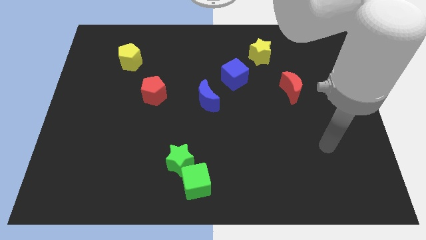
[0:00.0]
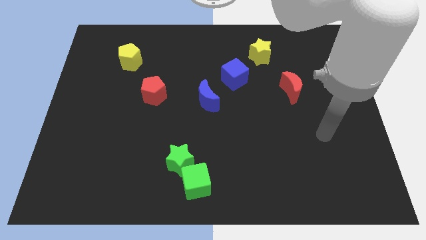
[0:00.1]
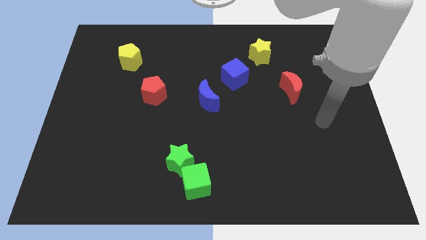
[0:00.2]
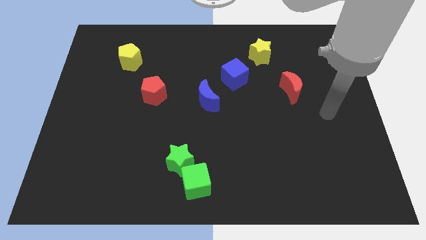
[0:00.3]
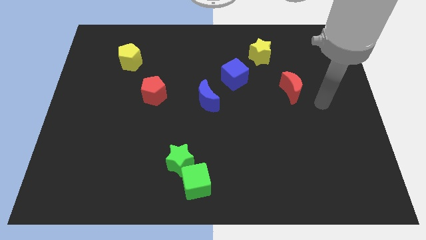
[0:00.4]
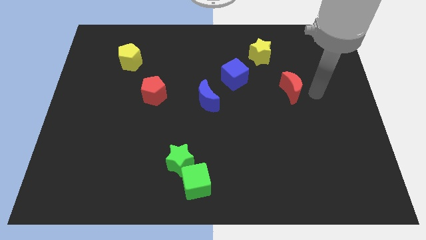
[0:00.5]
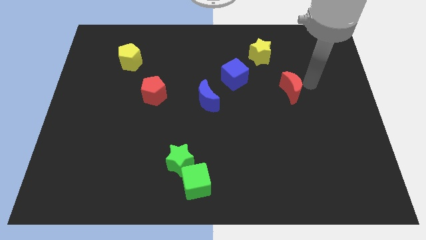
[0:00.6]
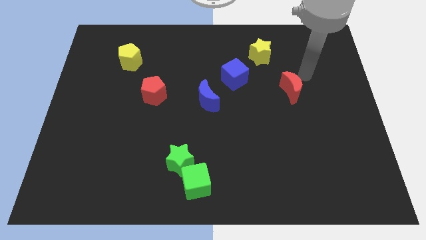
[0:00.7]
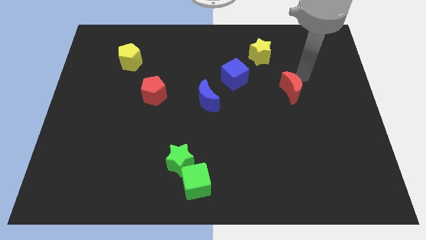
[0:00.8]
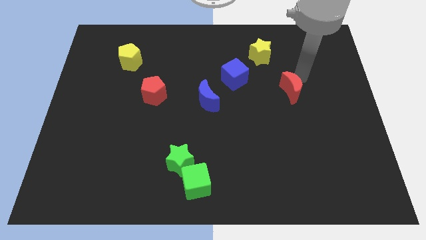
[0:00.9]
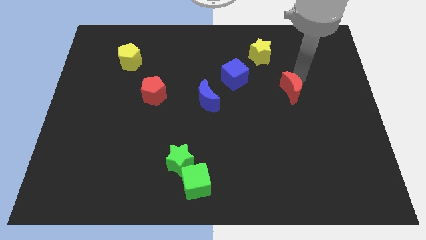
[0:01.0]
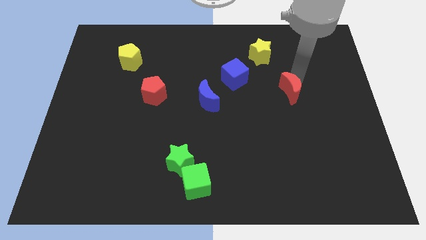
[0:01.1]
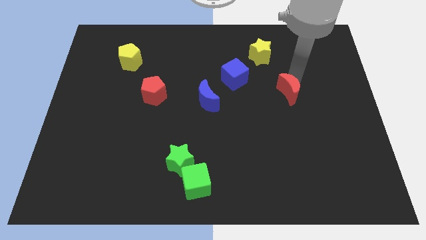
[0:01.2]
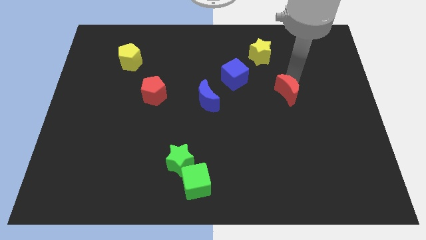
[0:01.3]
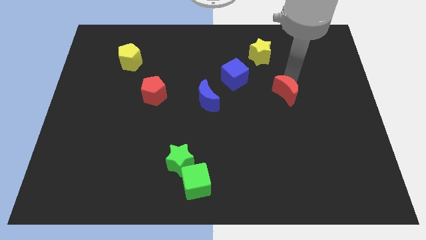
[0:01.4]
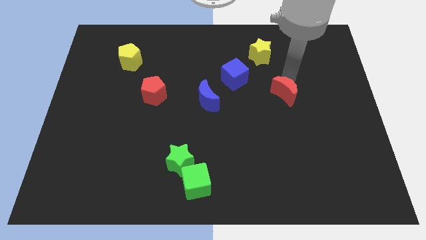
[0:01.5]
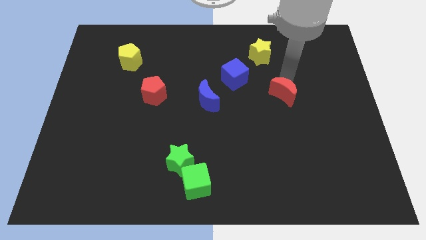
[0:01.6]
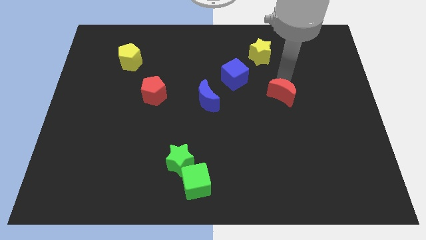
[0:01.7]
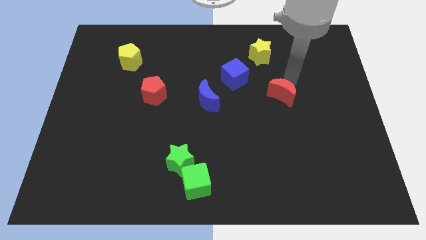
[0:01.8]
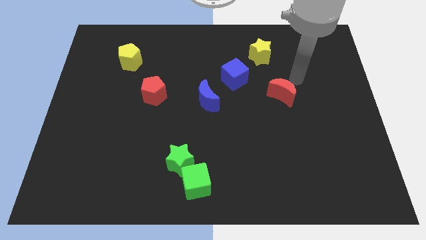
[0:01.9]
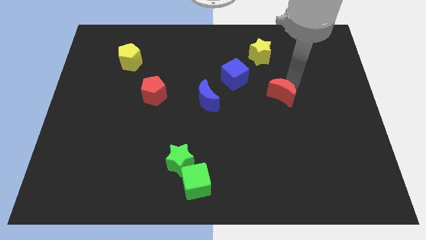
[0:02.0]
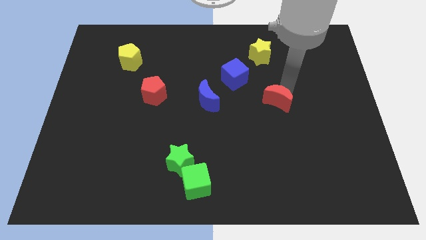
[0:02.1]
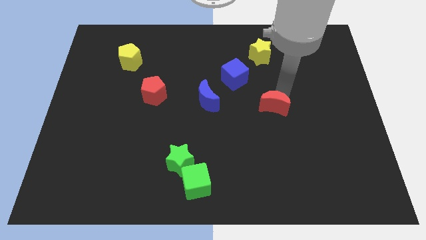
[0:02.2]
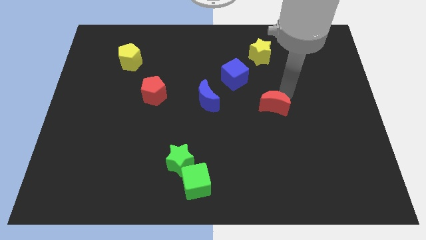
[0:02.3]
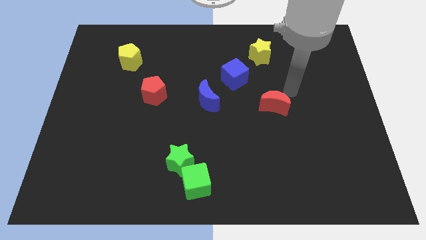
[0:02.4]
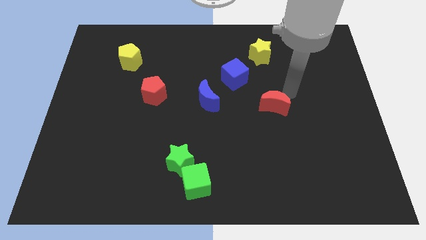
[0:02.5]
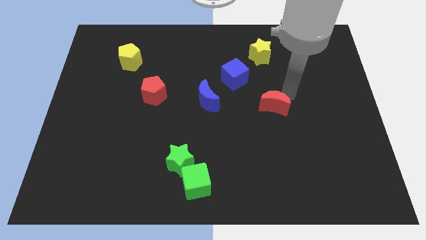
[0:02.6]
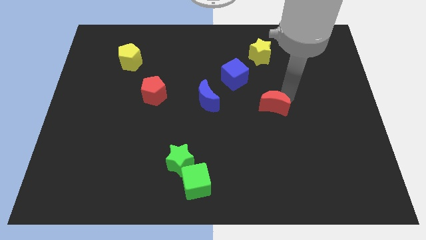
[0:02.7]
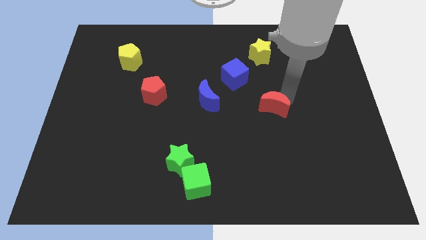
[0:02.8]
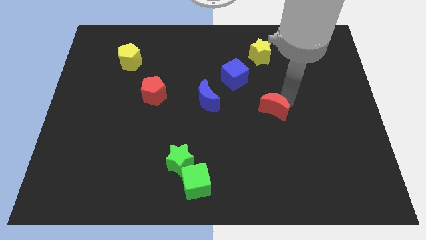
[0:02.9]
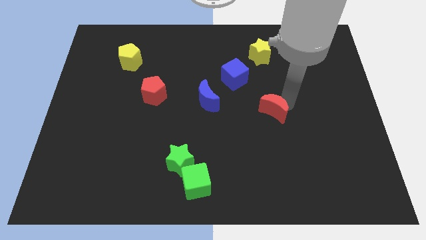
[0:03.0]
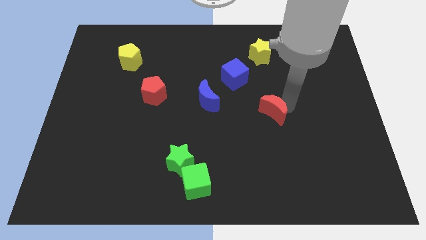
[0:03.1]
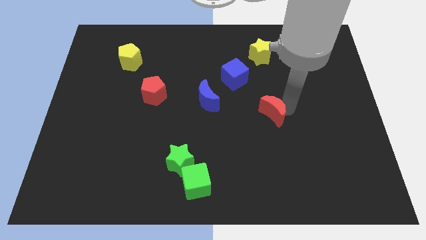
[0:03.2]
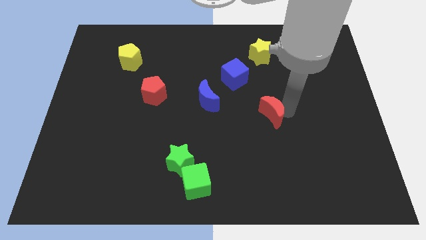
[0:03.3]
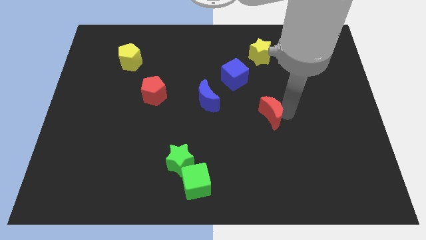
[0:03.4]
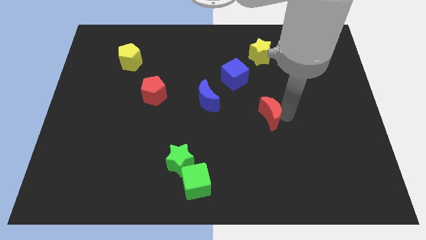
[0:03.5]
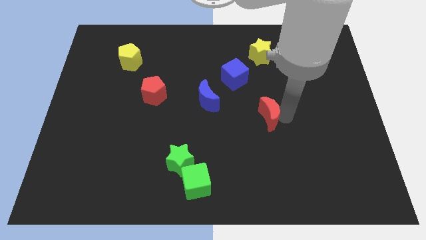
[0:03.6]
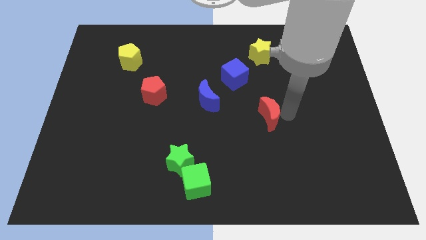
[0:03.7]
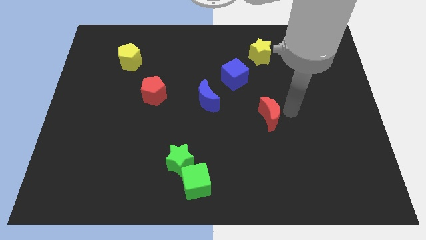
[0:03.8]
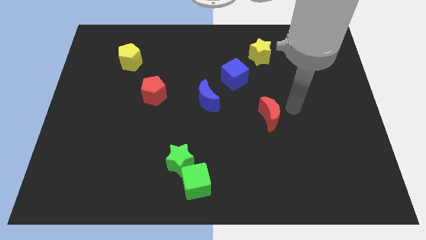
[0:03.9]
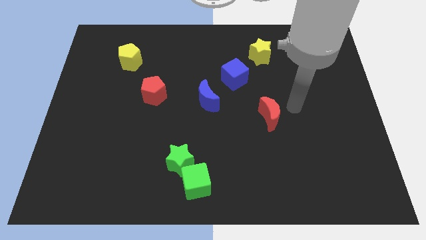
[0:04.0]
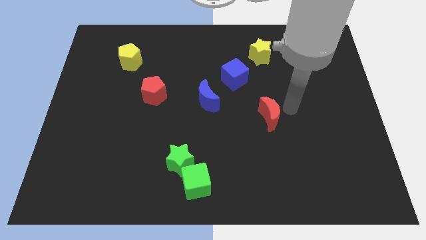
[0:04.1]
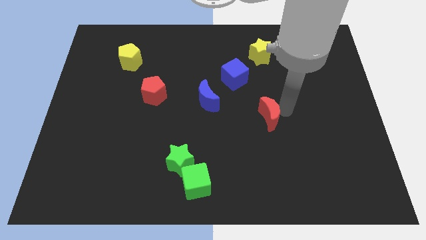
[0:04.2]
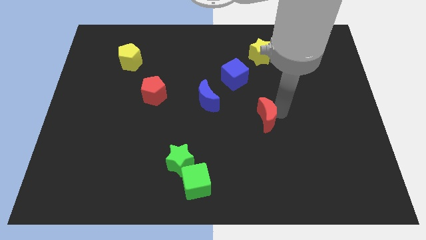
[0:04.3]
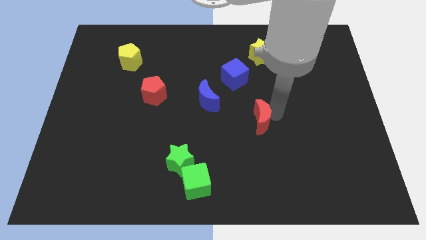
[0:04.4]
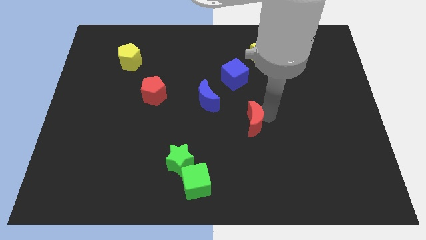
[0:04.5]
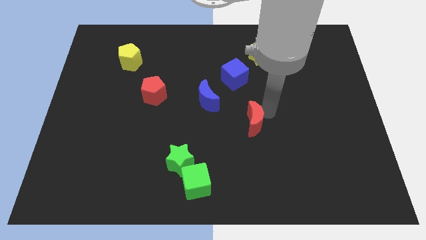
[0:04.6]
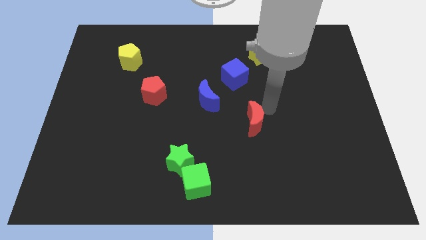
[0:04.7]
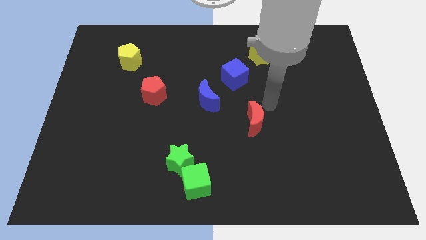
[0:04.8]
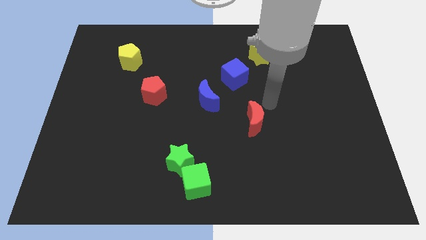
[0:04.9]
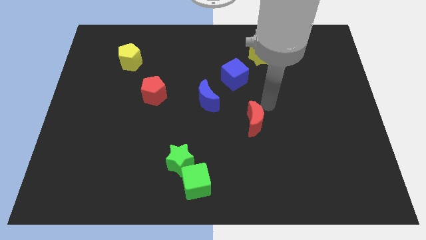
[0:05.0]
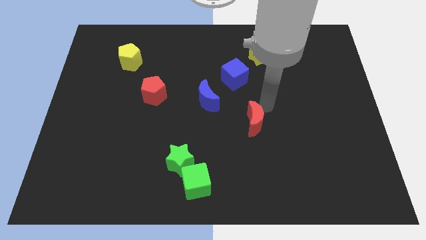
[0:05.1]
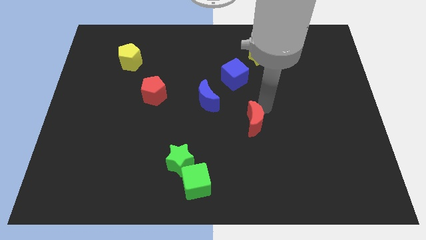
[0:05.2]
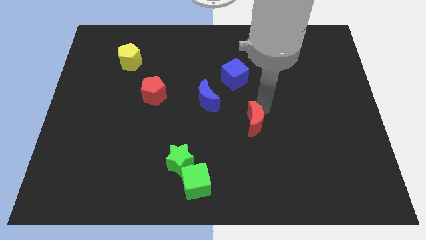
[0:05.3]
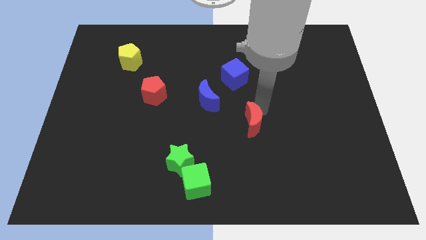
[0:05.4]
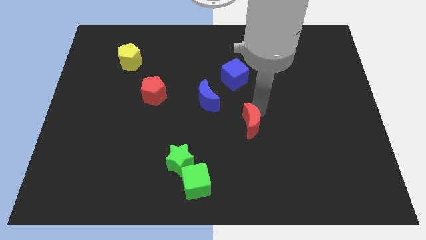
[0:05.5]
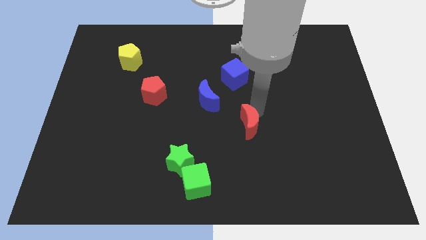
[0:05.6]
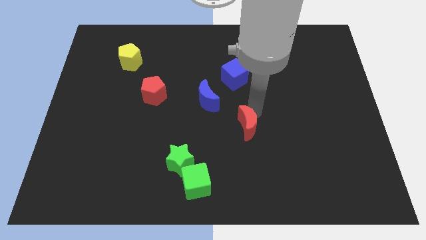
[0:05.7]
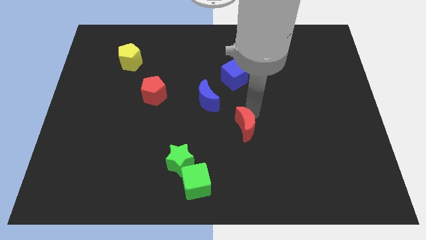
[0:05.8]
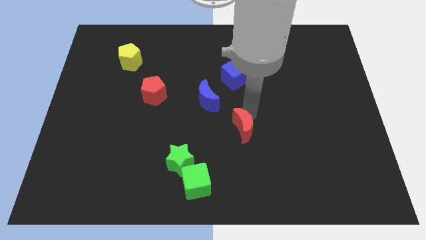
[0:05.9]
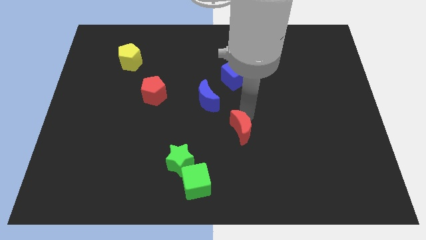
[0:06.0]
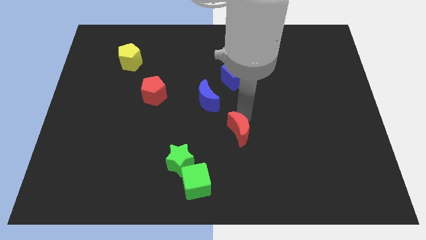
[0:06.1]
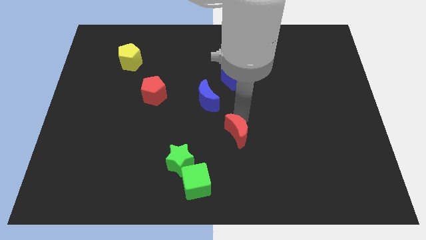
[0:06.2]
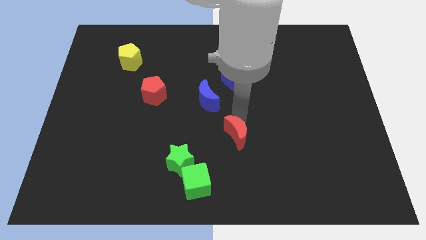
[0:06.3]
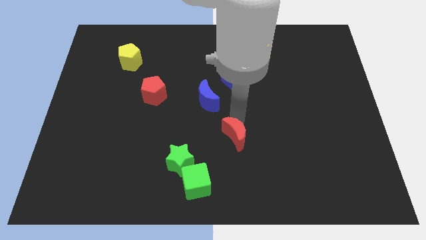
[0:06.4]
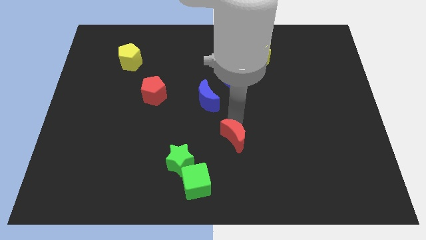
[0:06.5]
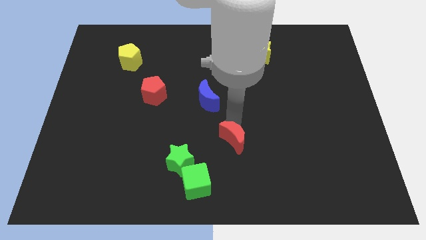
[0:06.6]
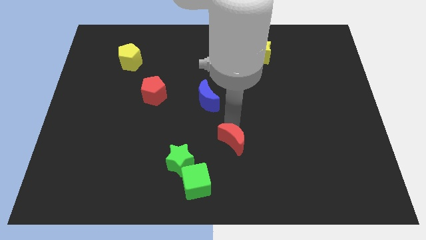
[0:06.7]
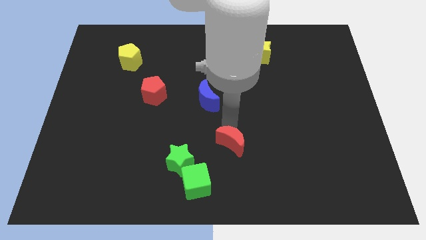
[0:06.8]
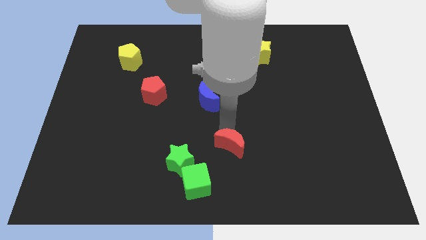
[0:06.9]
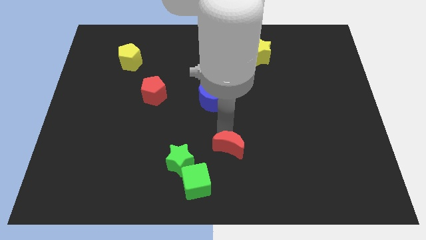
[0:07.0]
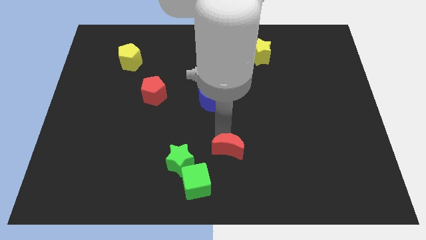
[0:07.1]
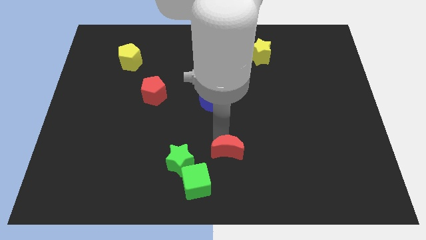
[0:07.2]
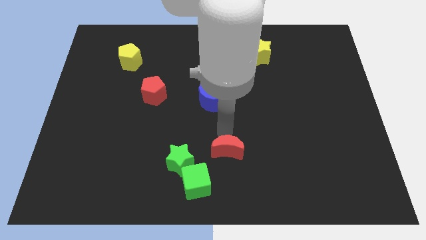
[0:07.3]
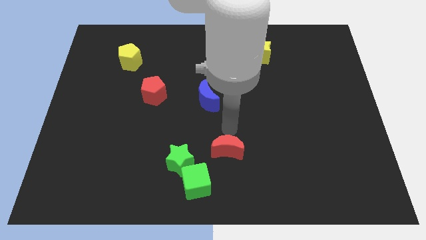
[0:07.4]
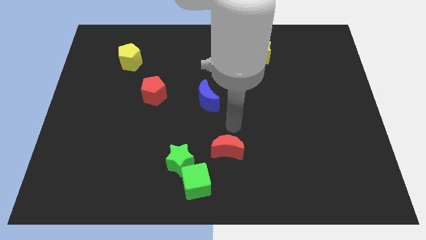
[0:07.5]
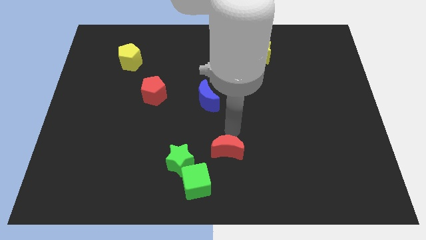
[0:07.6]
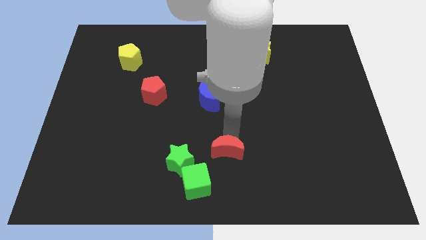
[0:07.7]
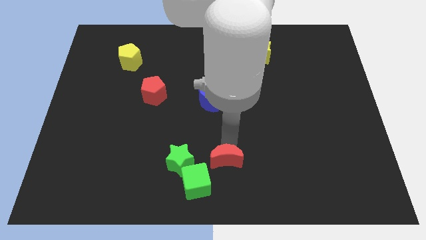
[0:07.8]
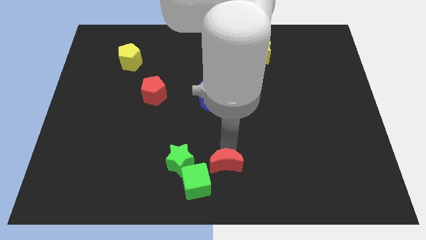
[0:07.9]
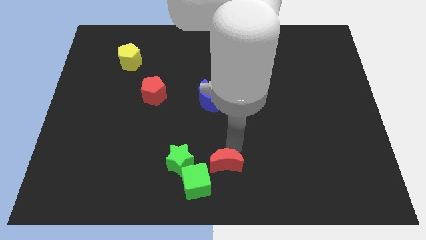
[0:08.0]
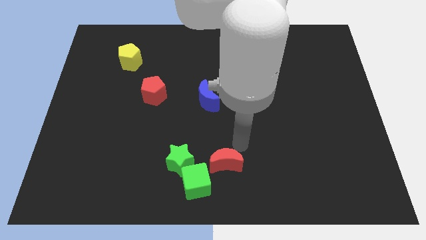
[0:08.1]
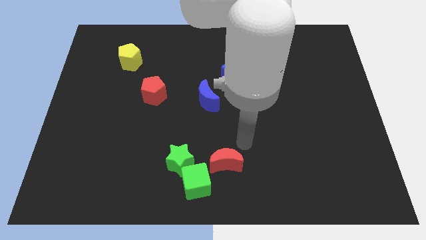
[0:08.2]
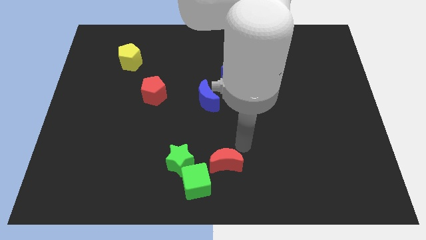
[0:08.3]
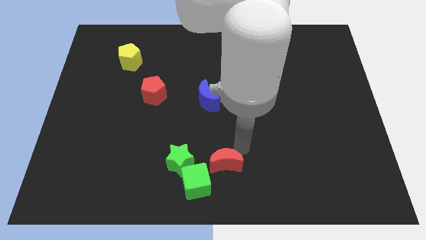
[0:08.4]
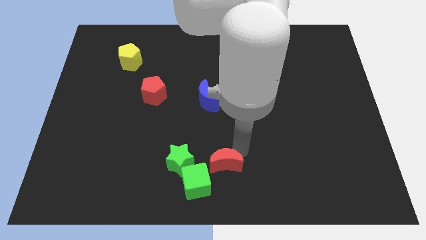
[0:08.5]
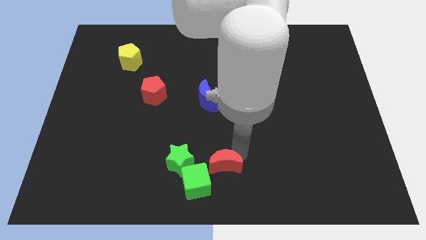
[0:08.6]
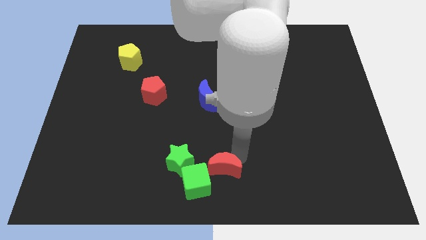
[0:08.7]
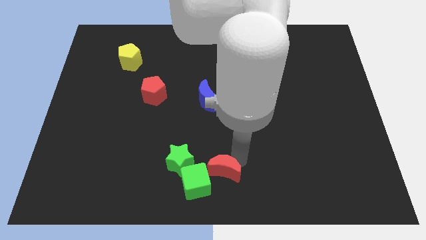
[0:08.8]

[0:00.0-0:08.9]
slide the red moon to the bottom right side of the green star
